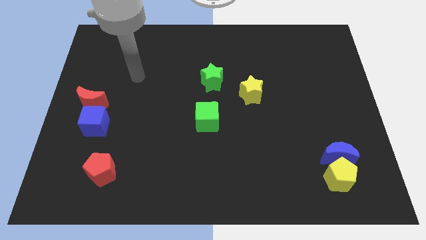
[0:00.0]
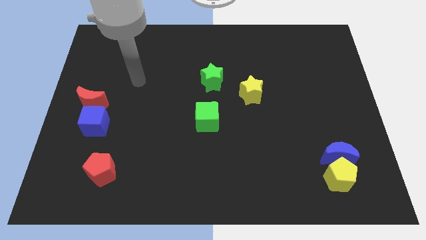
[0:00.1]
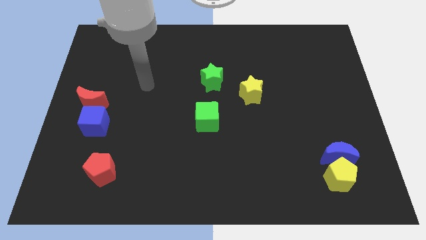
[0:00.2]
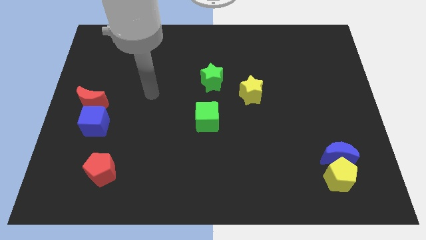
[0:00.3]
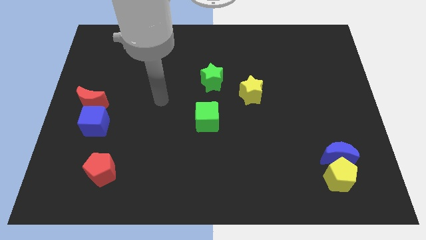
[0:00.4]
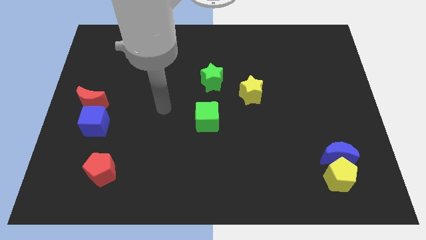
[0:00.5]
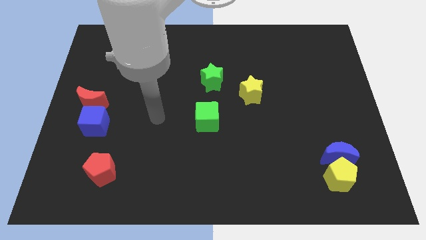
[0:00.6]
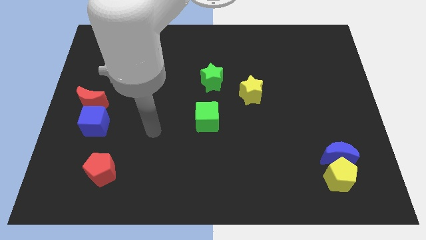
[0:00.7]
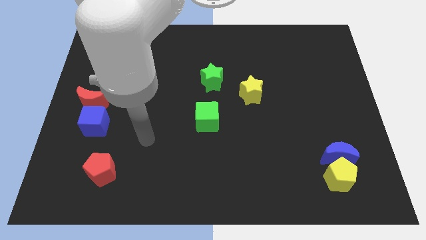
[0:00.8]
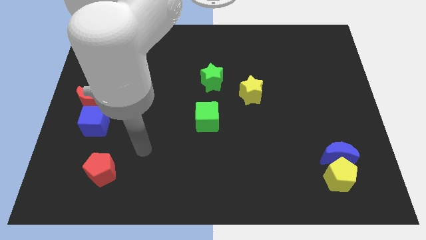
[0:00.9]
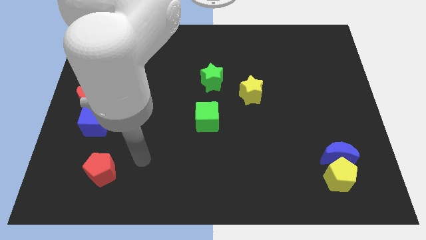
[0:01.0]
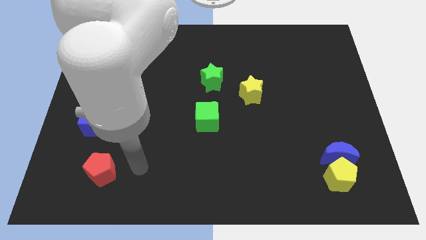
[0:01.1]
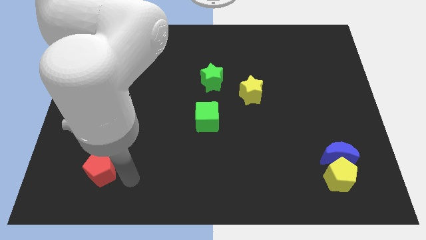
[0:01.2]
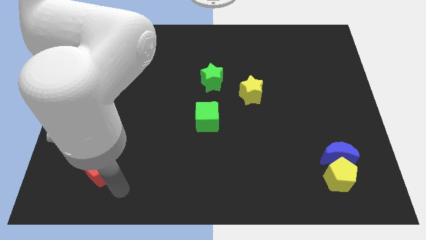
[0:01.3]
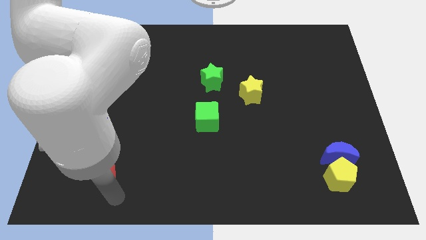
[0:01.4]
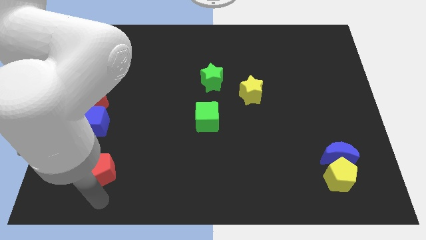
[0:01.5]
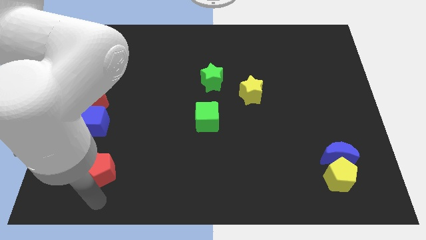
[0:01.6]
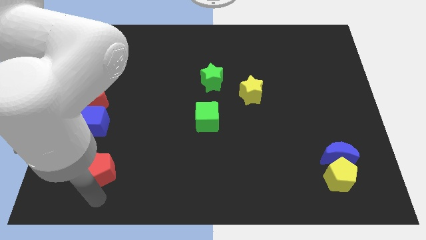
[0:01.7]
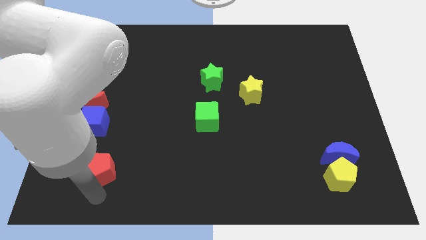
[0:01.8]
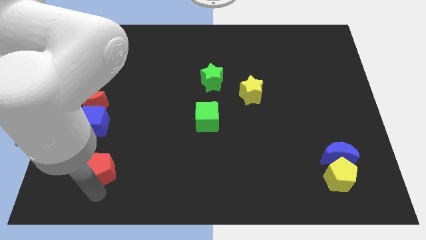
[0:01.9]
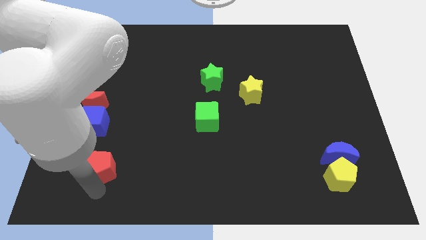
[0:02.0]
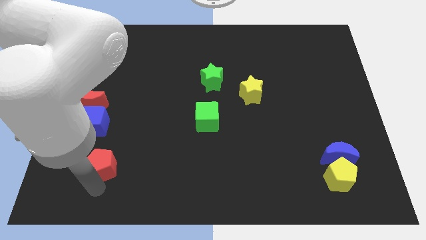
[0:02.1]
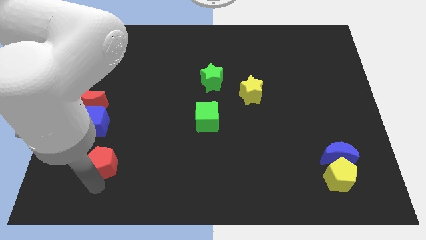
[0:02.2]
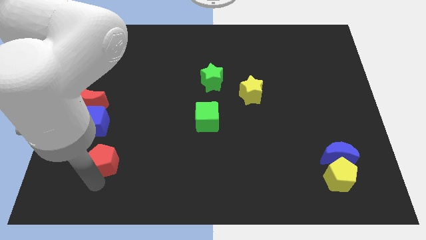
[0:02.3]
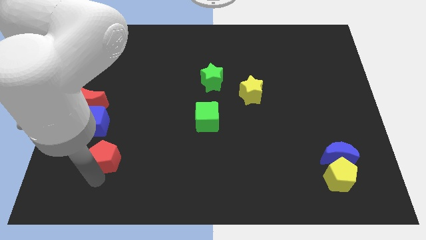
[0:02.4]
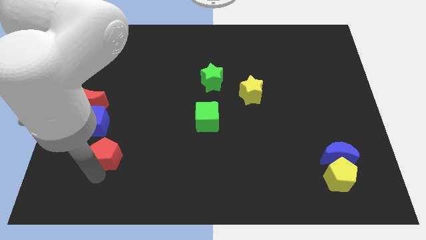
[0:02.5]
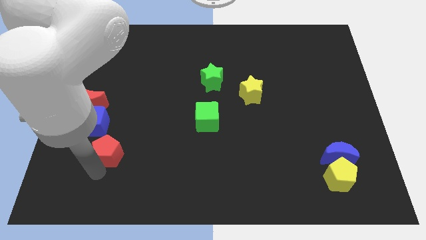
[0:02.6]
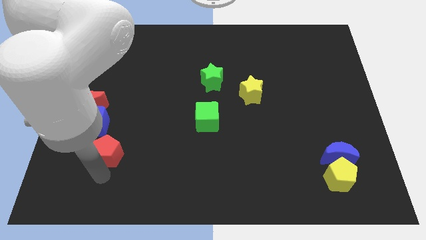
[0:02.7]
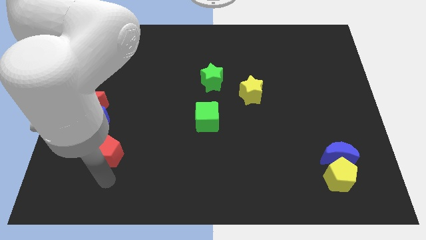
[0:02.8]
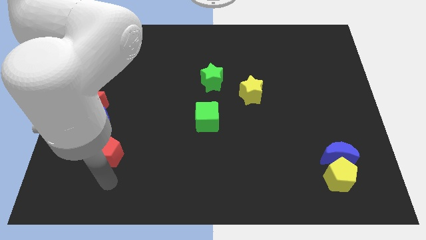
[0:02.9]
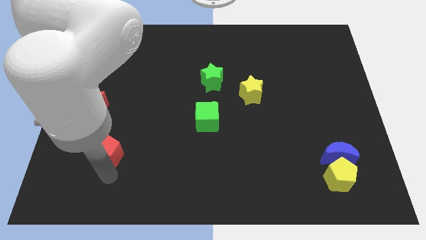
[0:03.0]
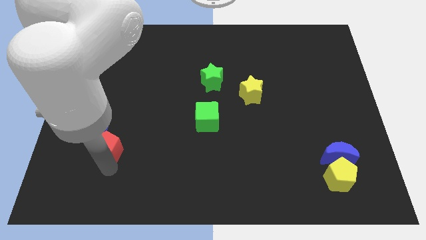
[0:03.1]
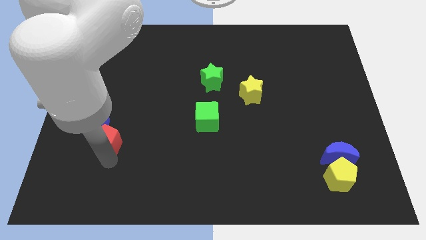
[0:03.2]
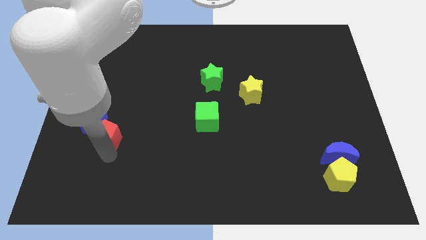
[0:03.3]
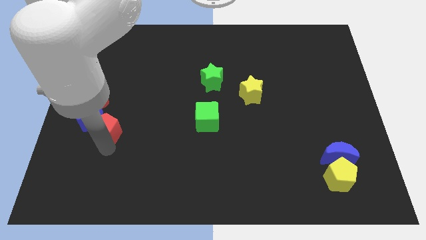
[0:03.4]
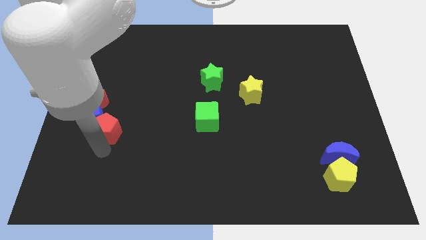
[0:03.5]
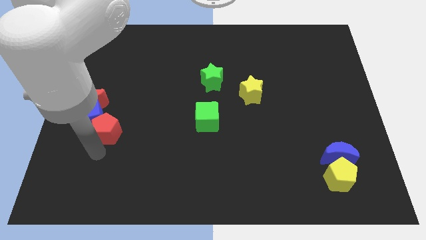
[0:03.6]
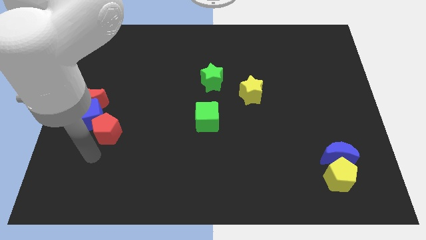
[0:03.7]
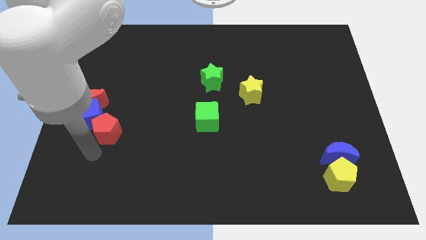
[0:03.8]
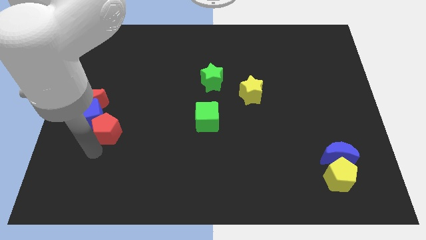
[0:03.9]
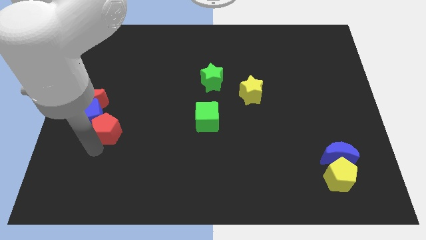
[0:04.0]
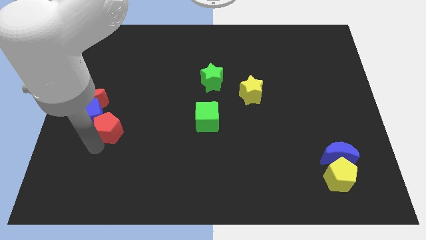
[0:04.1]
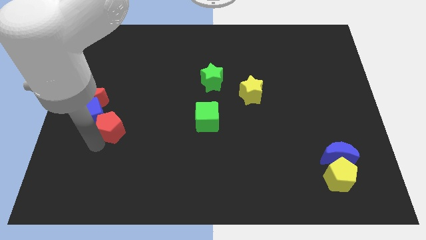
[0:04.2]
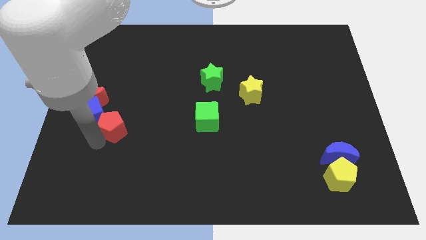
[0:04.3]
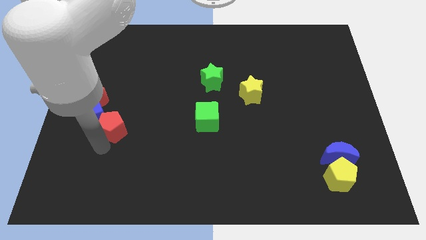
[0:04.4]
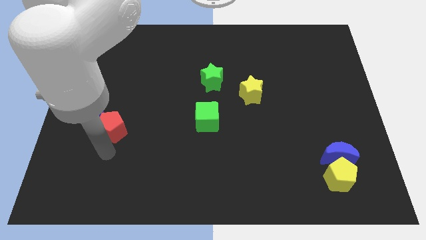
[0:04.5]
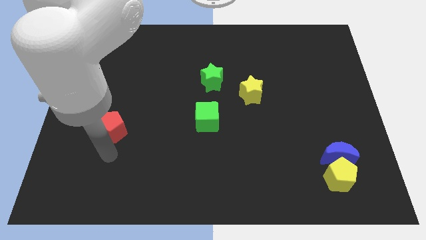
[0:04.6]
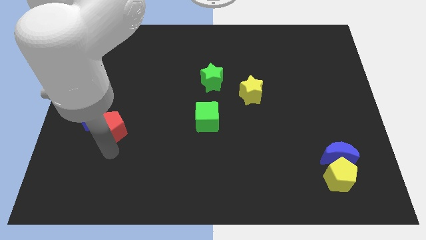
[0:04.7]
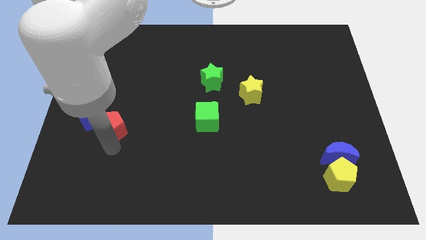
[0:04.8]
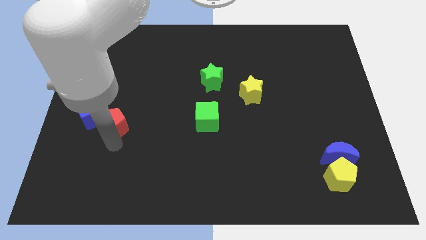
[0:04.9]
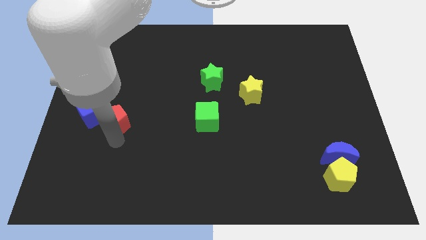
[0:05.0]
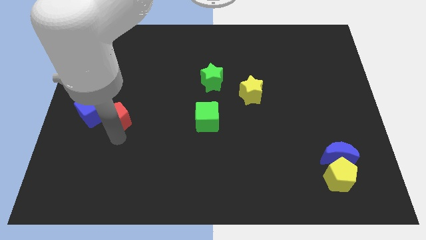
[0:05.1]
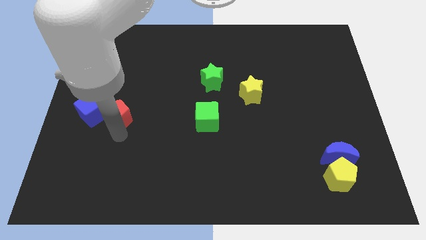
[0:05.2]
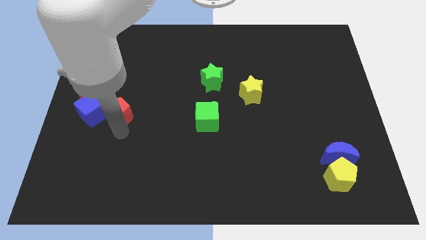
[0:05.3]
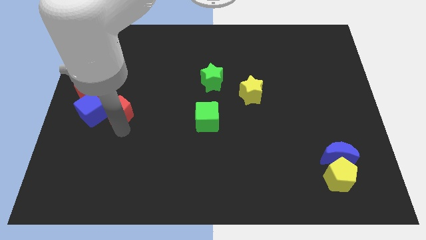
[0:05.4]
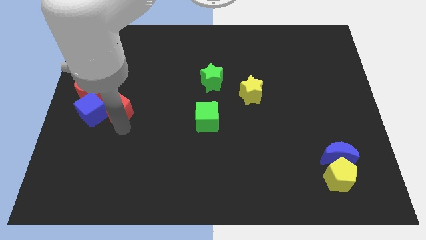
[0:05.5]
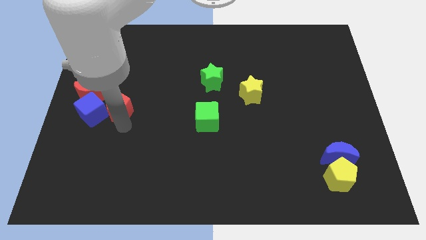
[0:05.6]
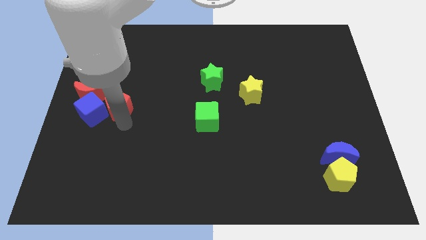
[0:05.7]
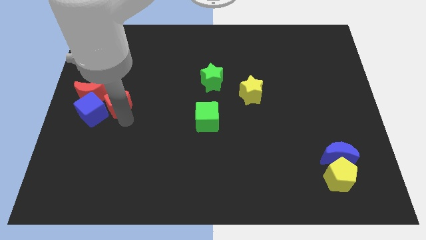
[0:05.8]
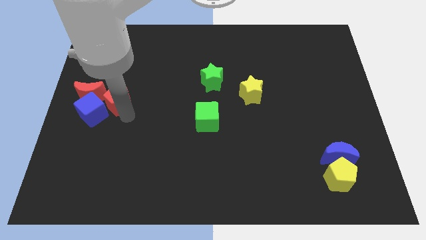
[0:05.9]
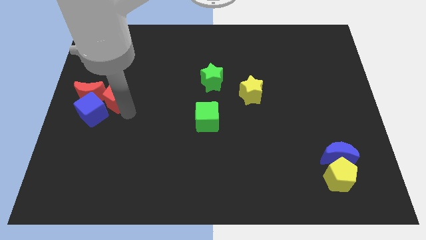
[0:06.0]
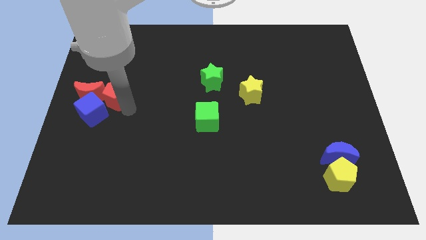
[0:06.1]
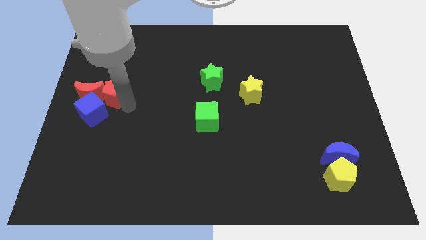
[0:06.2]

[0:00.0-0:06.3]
put the red pentagon above the blue cube
